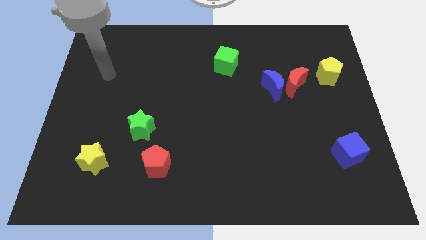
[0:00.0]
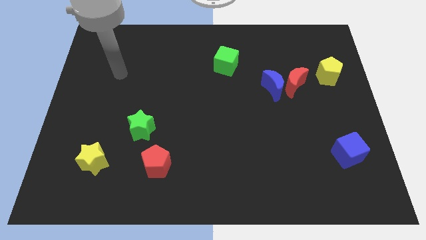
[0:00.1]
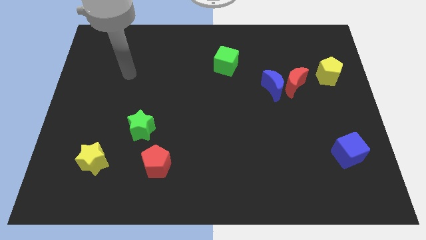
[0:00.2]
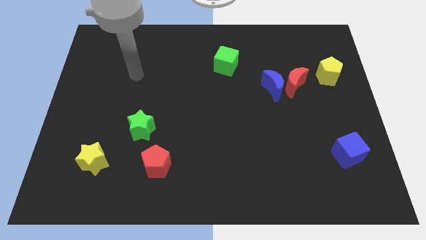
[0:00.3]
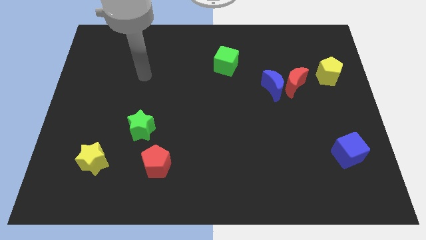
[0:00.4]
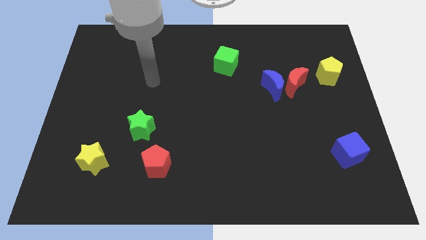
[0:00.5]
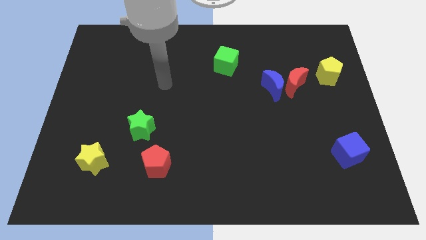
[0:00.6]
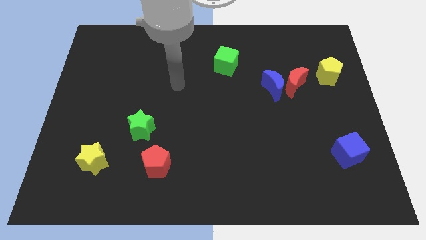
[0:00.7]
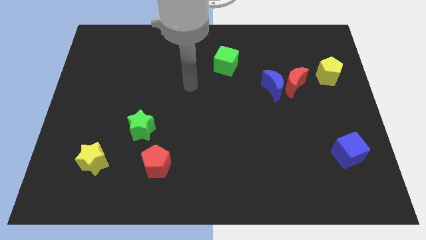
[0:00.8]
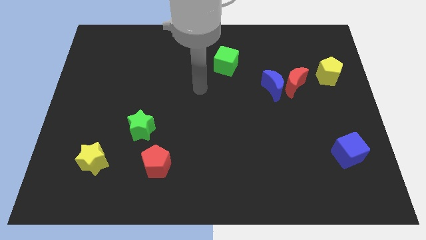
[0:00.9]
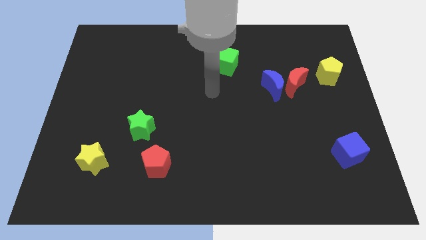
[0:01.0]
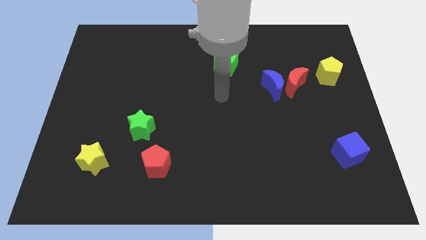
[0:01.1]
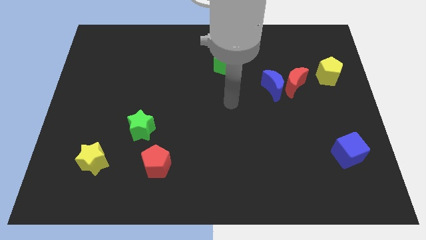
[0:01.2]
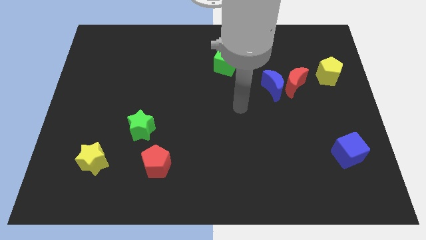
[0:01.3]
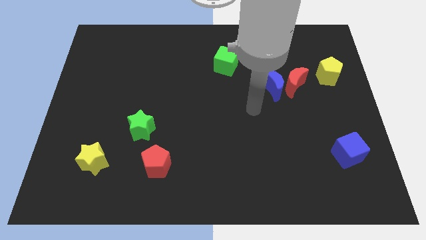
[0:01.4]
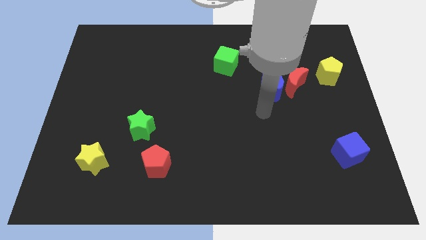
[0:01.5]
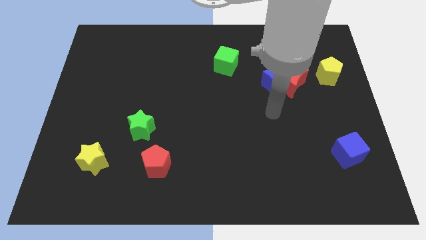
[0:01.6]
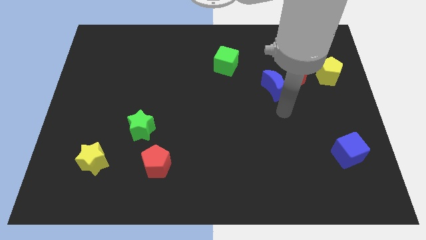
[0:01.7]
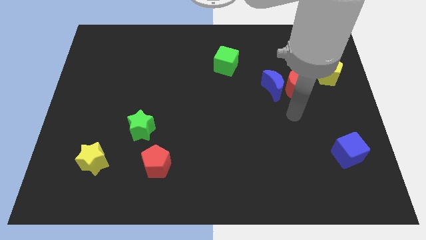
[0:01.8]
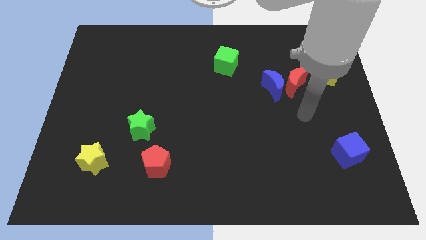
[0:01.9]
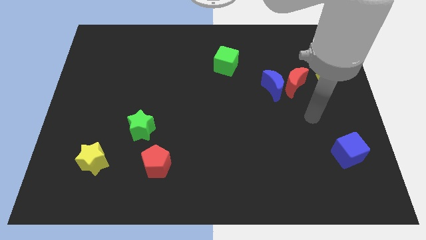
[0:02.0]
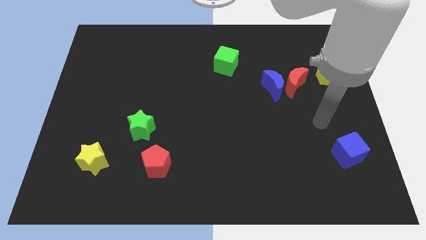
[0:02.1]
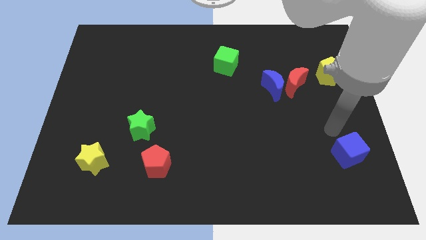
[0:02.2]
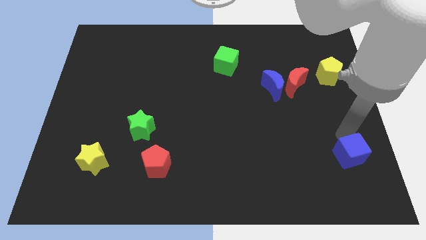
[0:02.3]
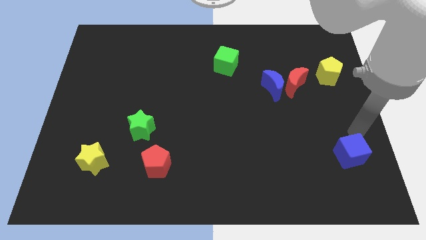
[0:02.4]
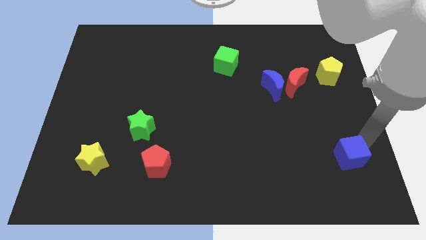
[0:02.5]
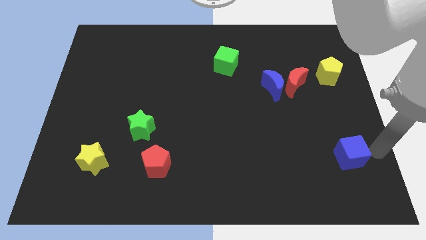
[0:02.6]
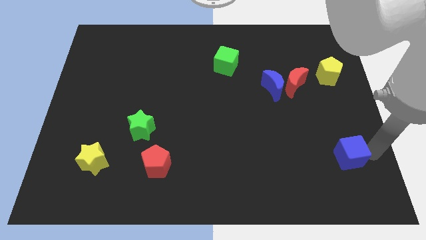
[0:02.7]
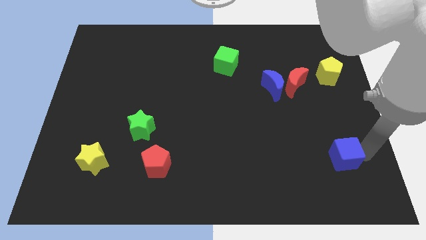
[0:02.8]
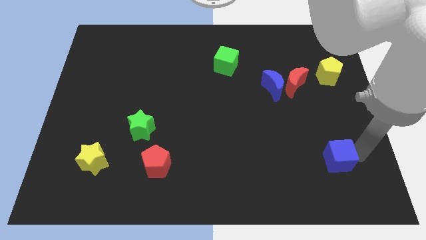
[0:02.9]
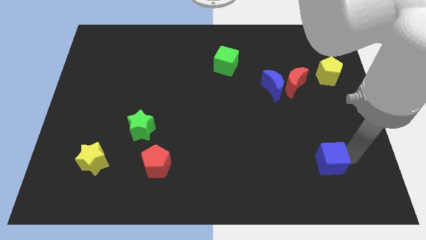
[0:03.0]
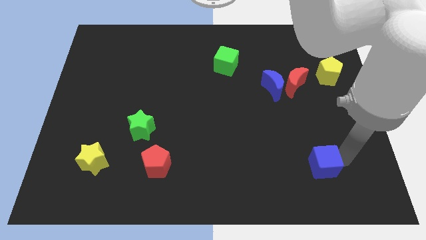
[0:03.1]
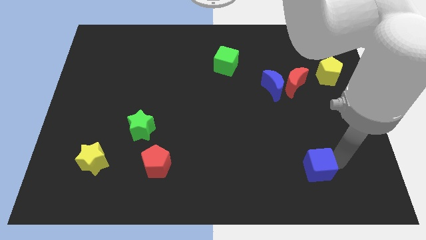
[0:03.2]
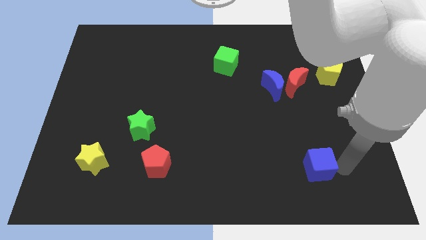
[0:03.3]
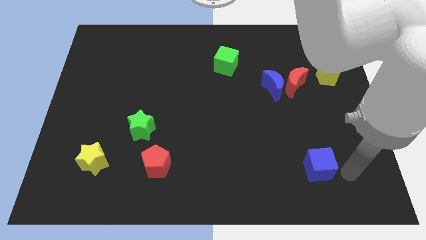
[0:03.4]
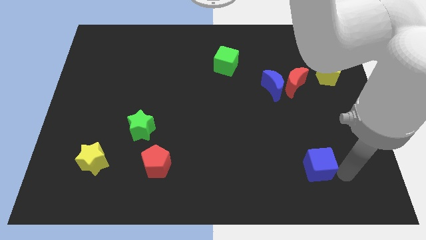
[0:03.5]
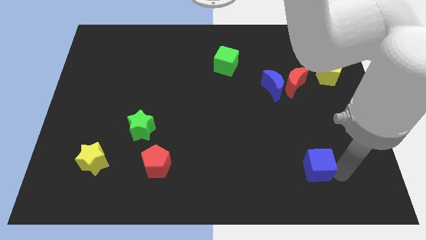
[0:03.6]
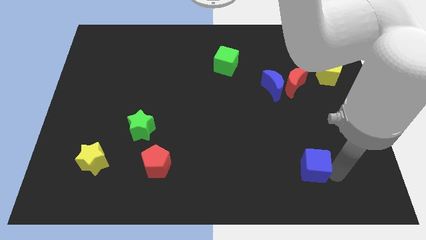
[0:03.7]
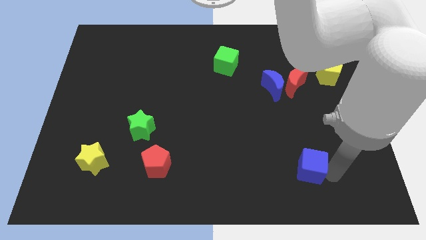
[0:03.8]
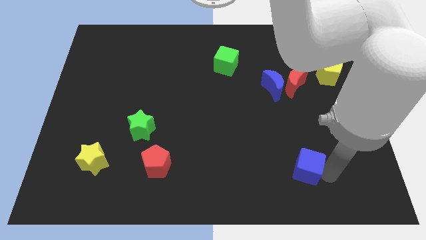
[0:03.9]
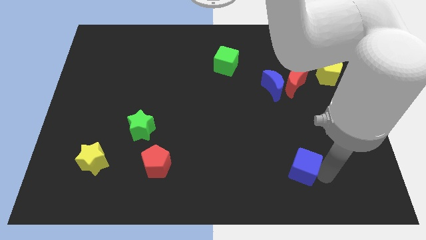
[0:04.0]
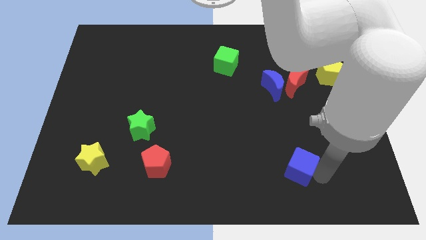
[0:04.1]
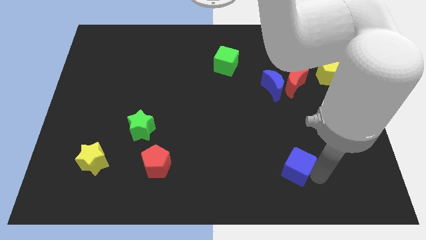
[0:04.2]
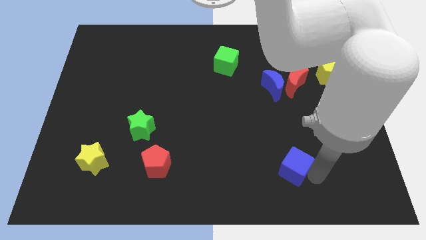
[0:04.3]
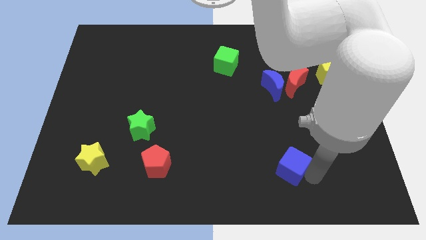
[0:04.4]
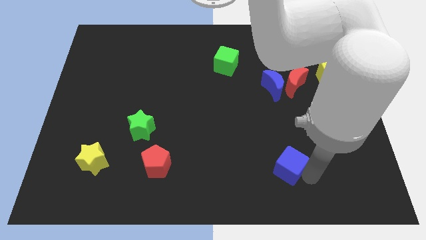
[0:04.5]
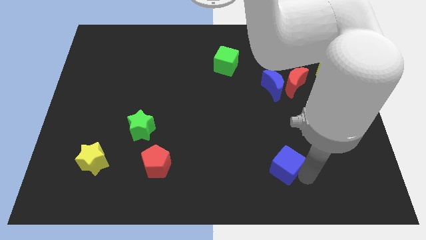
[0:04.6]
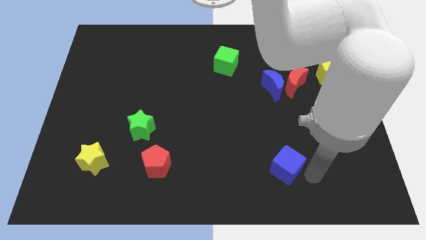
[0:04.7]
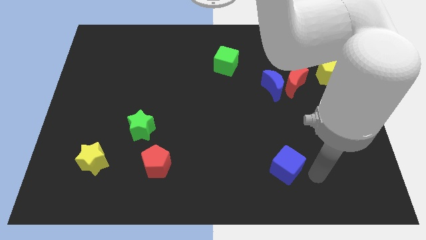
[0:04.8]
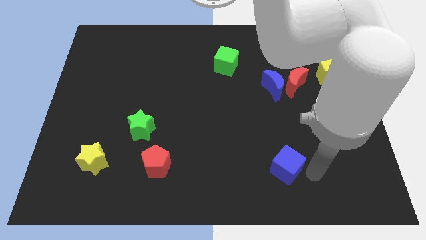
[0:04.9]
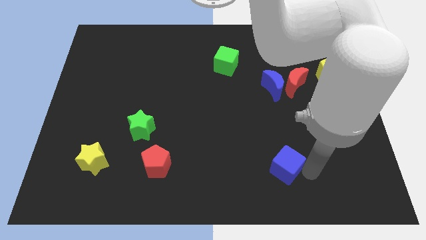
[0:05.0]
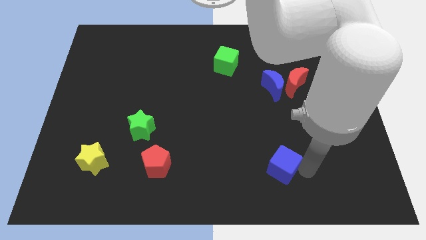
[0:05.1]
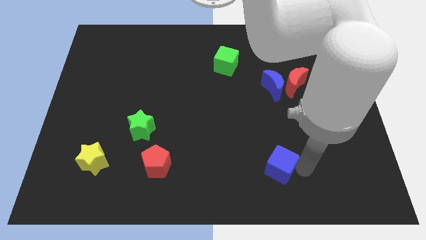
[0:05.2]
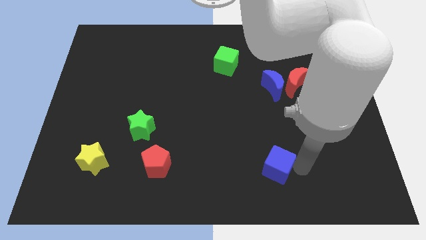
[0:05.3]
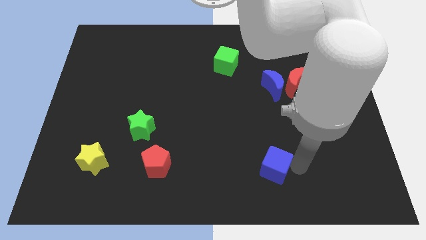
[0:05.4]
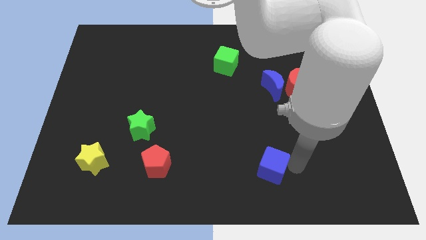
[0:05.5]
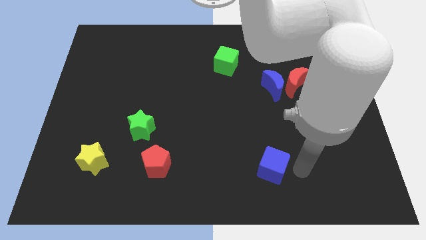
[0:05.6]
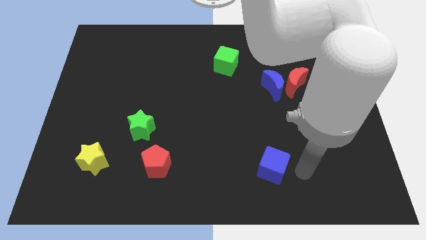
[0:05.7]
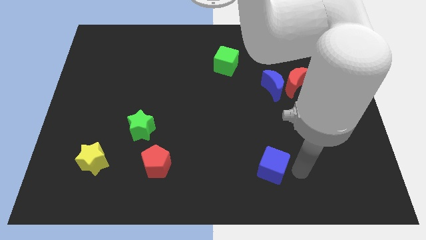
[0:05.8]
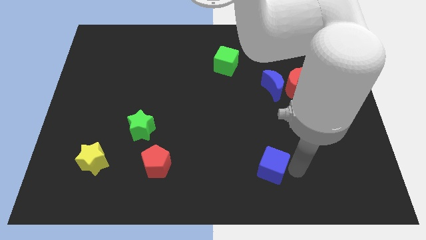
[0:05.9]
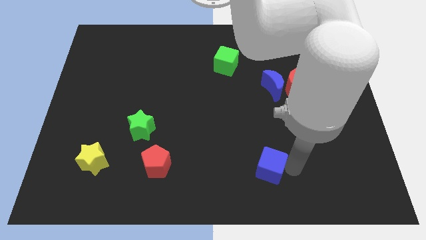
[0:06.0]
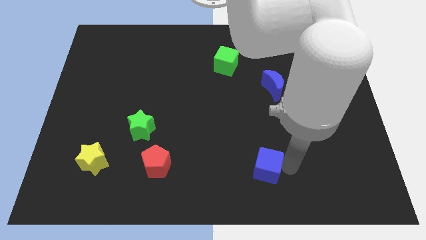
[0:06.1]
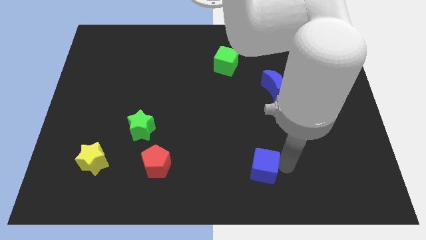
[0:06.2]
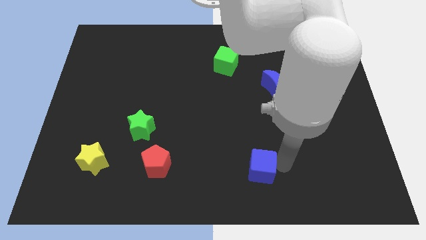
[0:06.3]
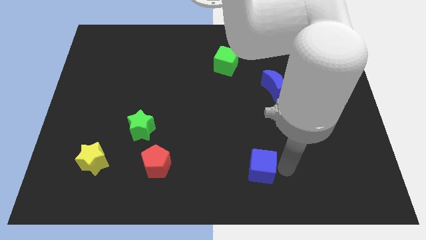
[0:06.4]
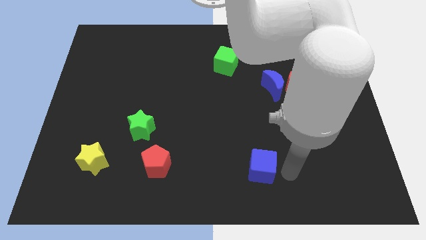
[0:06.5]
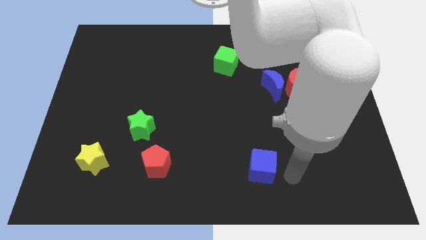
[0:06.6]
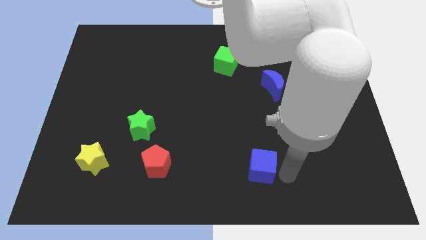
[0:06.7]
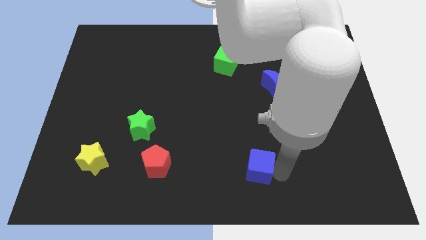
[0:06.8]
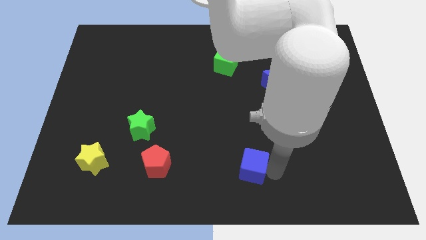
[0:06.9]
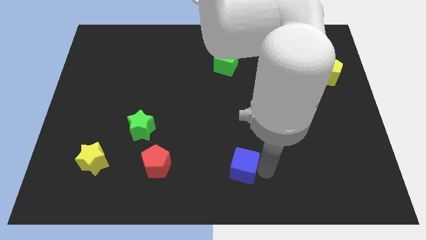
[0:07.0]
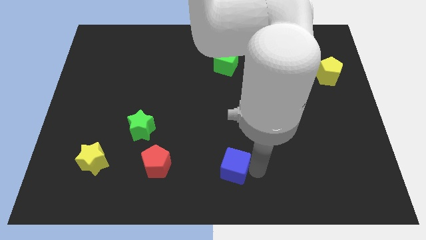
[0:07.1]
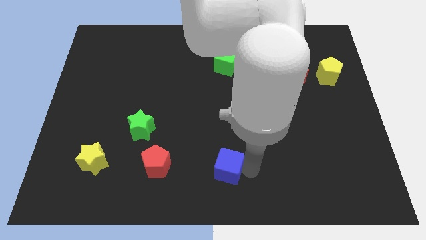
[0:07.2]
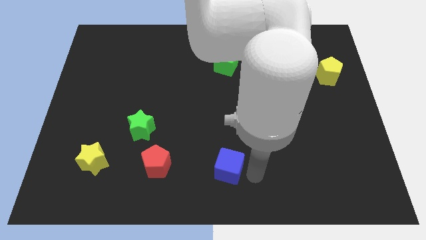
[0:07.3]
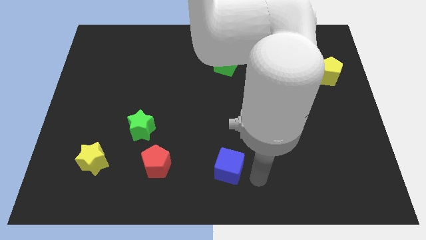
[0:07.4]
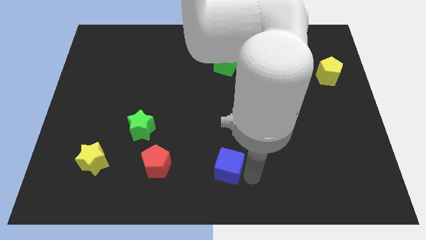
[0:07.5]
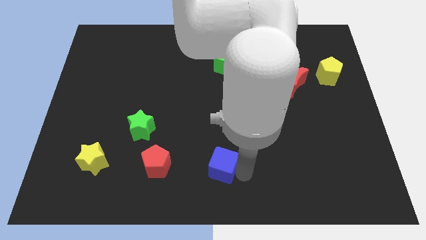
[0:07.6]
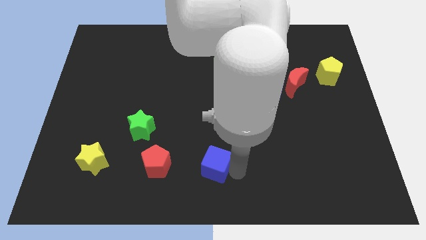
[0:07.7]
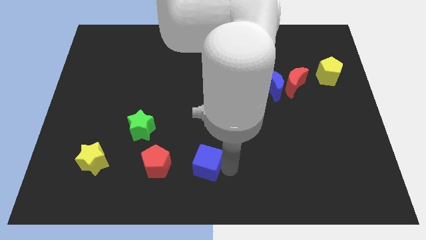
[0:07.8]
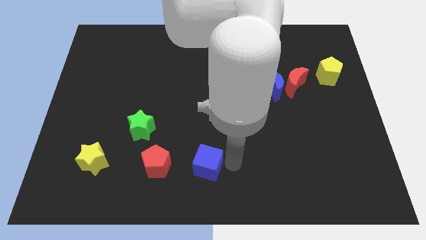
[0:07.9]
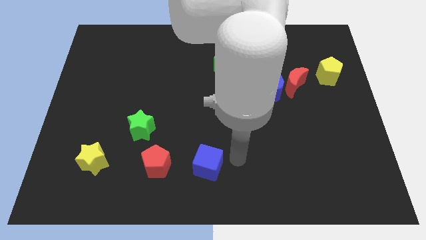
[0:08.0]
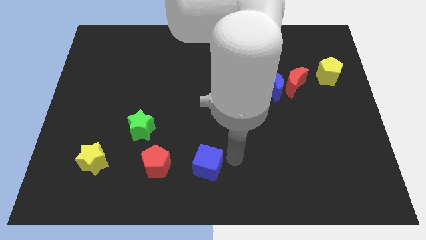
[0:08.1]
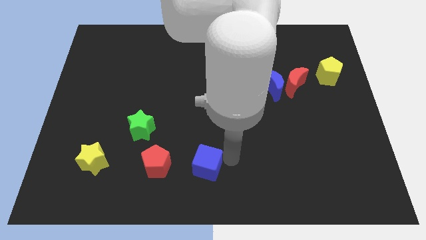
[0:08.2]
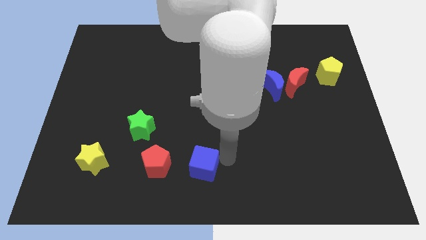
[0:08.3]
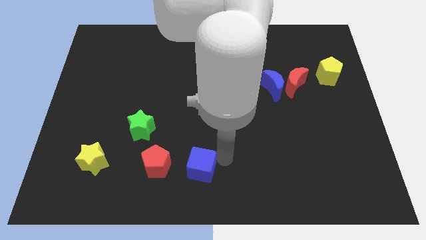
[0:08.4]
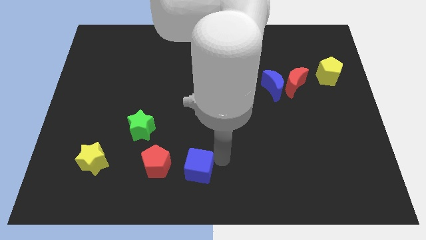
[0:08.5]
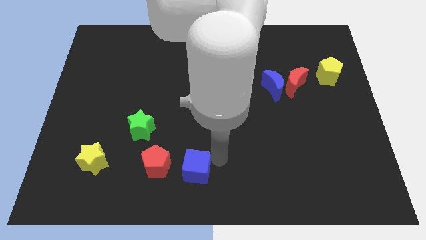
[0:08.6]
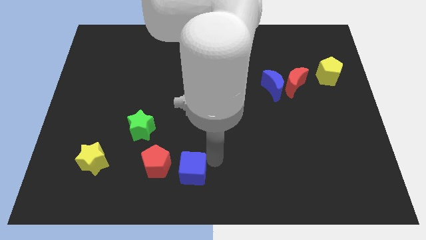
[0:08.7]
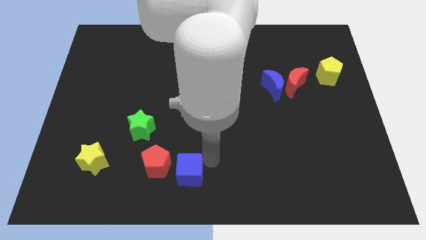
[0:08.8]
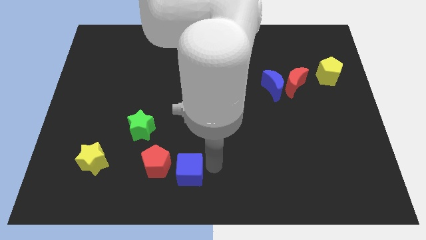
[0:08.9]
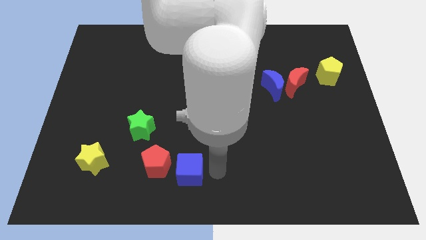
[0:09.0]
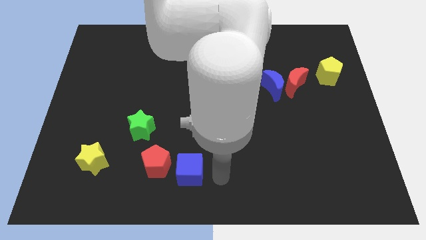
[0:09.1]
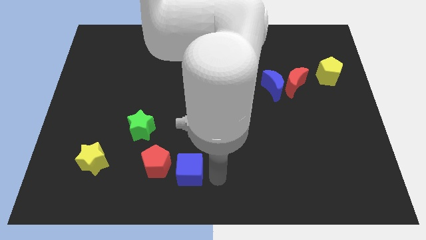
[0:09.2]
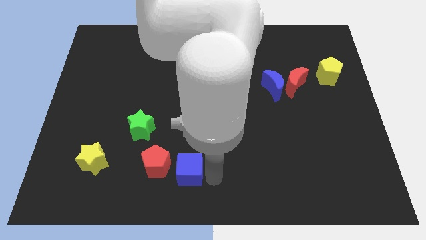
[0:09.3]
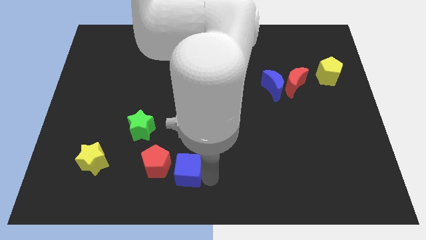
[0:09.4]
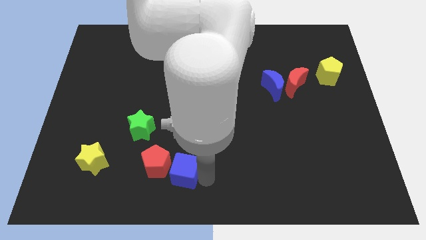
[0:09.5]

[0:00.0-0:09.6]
move the blue cube towards the red pentagon
